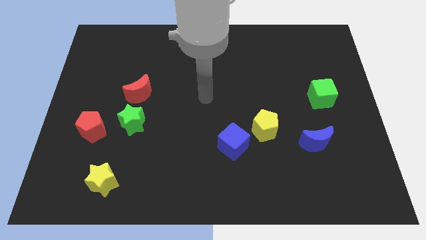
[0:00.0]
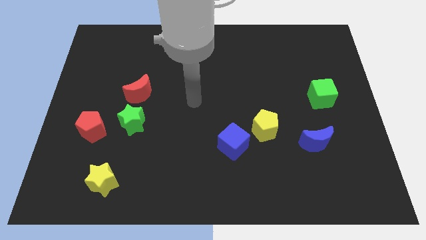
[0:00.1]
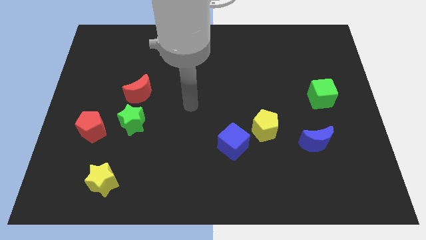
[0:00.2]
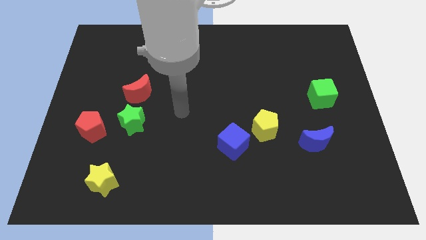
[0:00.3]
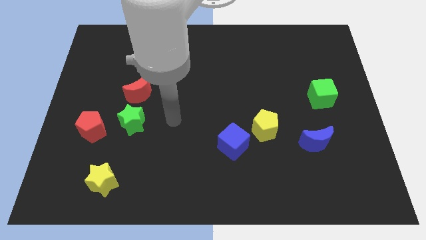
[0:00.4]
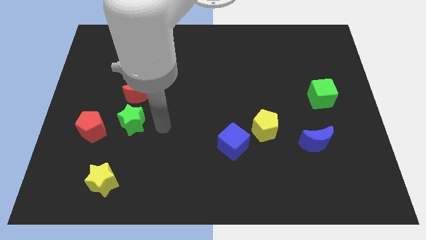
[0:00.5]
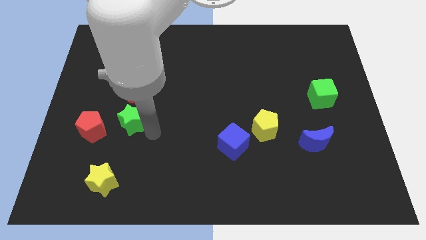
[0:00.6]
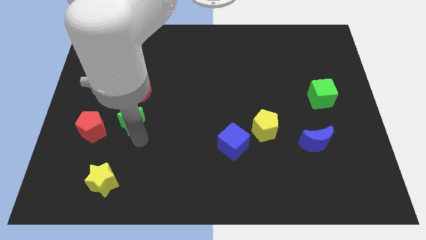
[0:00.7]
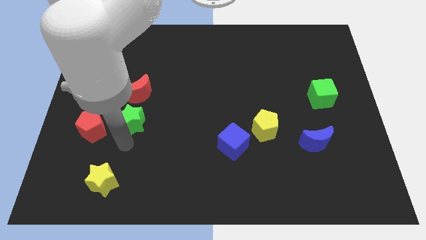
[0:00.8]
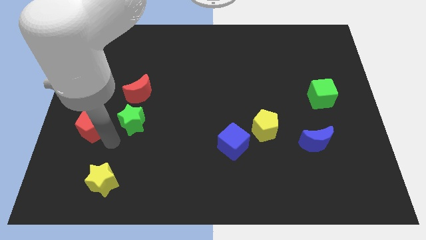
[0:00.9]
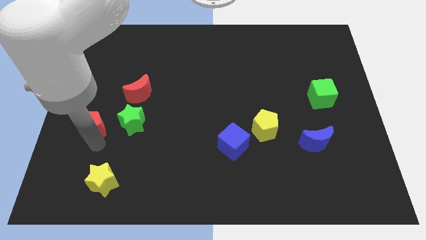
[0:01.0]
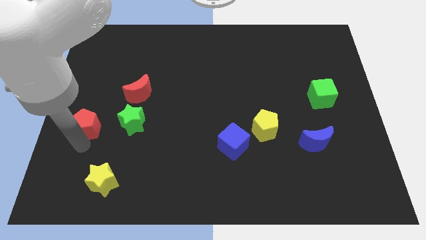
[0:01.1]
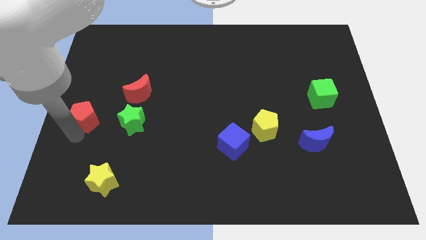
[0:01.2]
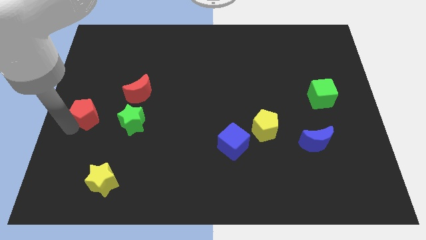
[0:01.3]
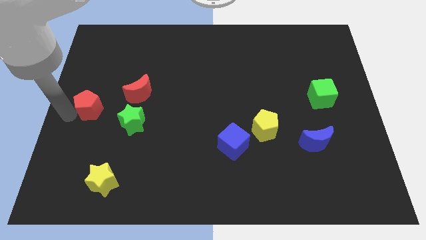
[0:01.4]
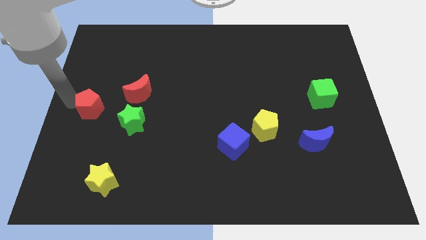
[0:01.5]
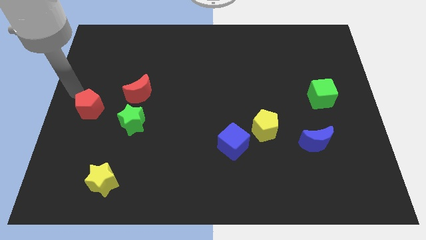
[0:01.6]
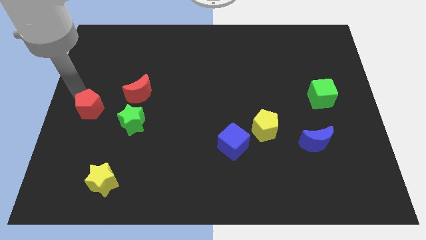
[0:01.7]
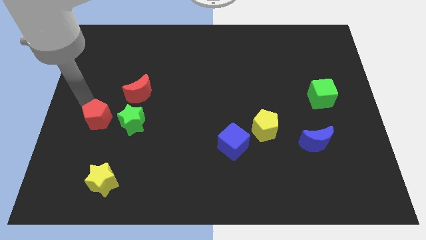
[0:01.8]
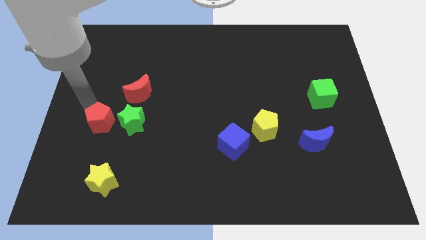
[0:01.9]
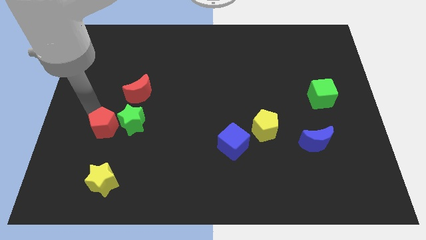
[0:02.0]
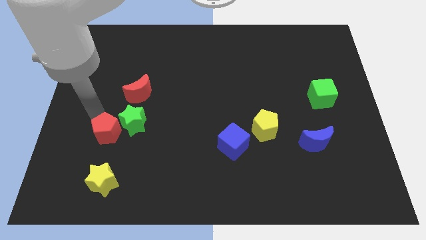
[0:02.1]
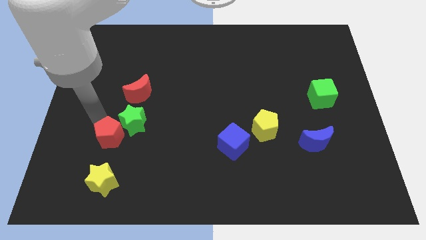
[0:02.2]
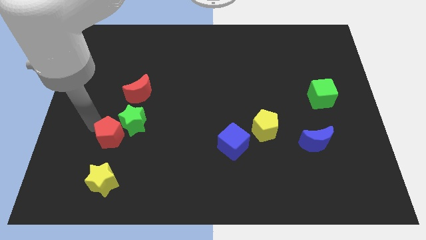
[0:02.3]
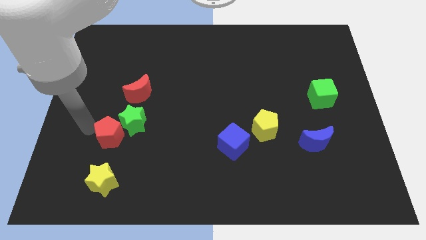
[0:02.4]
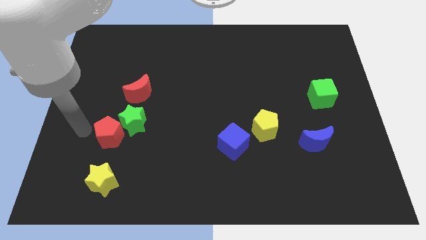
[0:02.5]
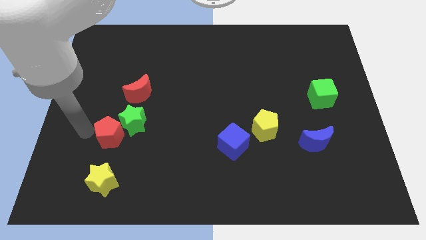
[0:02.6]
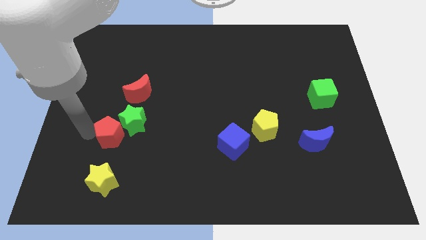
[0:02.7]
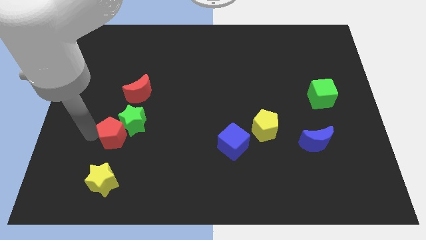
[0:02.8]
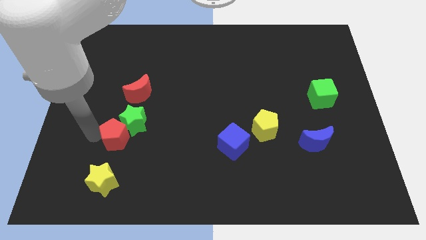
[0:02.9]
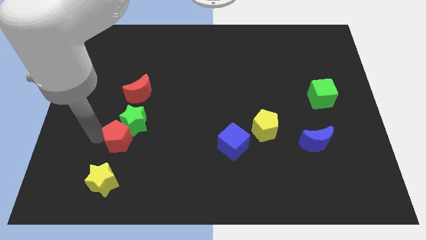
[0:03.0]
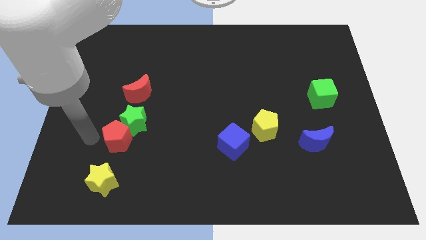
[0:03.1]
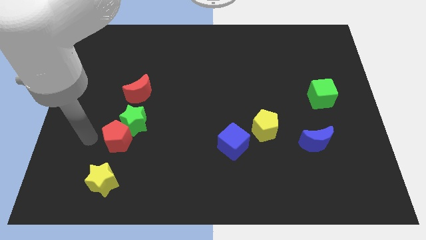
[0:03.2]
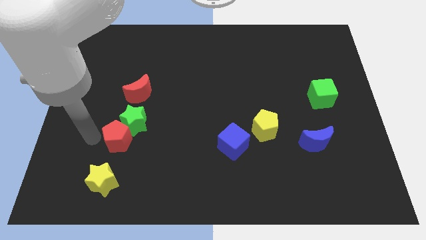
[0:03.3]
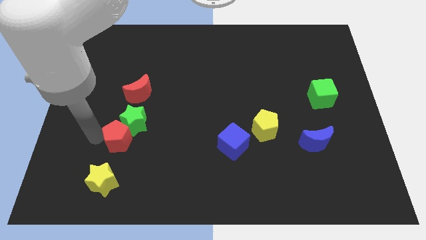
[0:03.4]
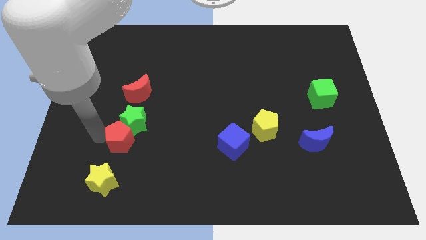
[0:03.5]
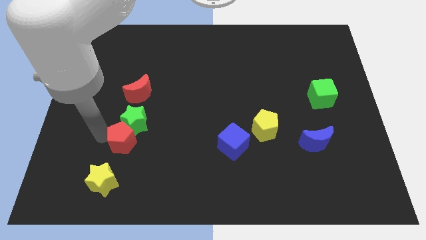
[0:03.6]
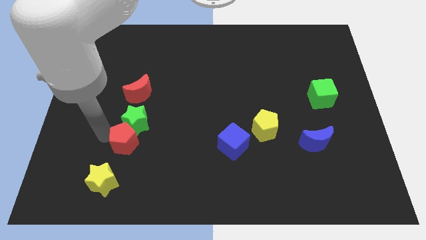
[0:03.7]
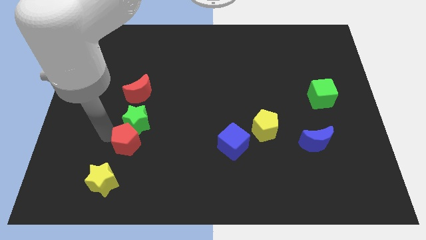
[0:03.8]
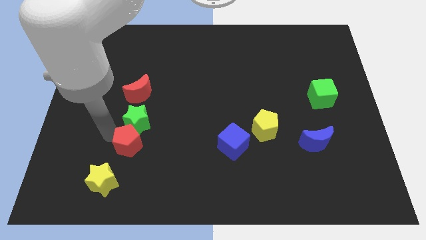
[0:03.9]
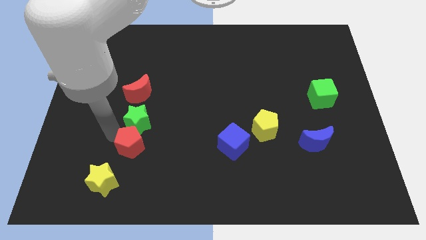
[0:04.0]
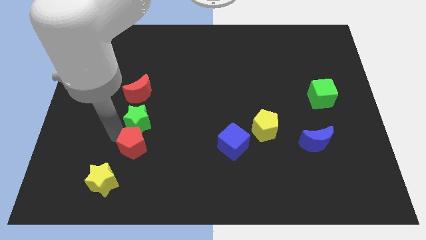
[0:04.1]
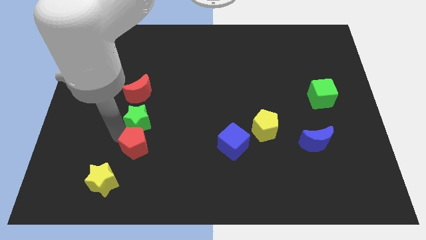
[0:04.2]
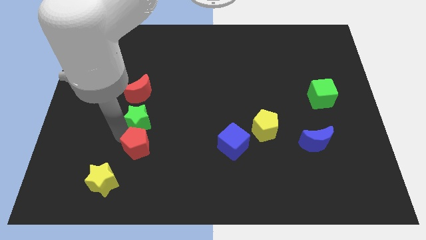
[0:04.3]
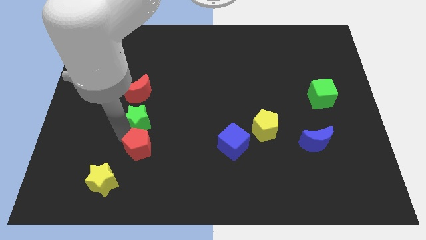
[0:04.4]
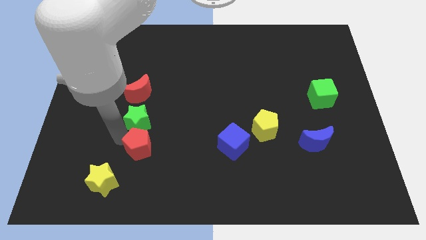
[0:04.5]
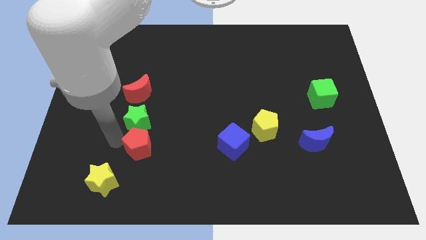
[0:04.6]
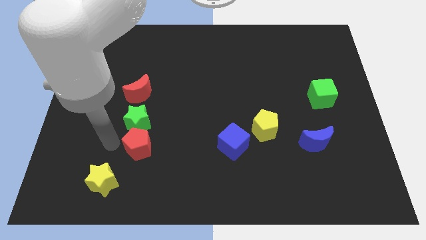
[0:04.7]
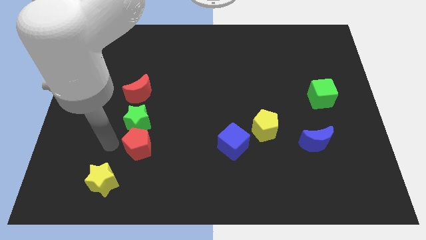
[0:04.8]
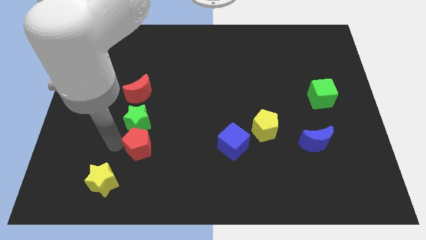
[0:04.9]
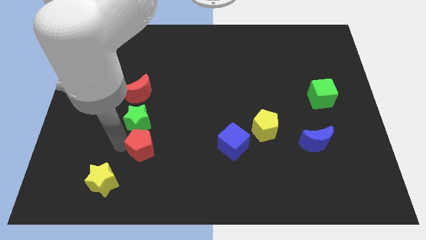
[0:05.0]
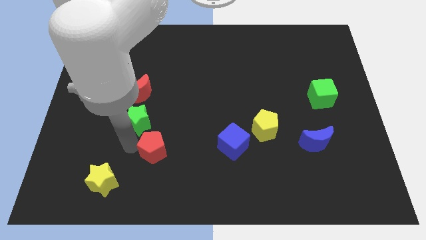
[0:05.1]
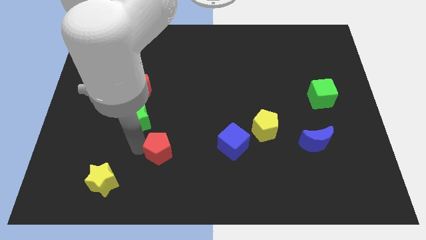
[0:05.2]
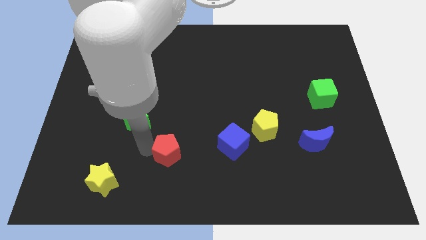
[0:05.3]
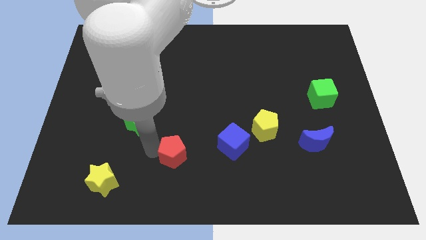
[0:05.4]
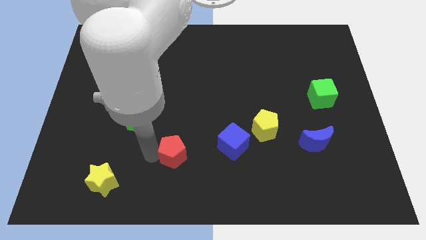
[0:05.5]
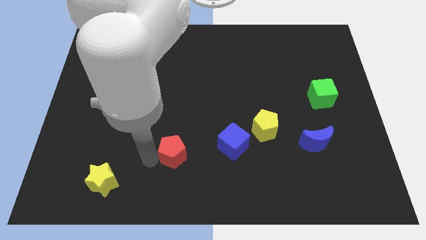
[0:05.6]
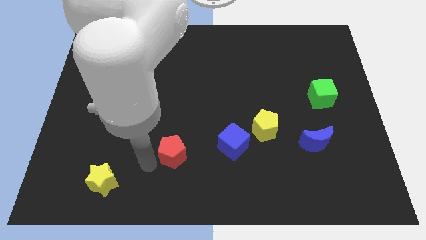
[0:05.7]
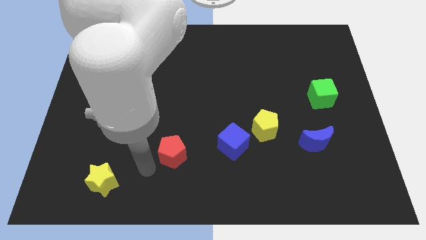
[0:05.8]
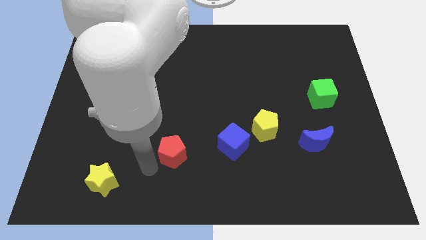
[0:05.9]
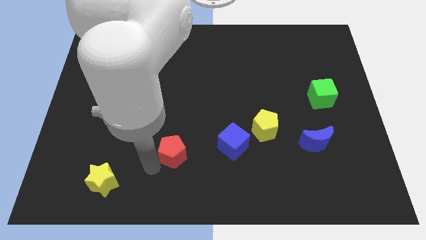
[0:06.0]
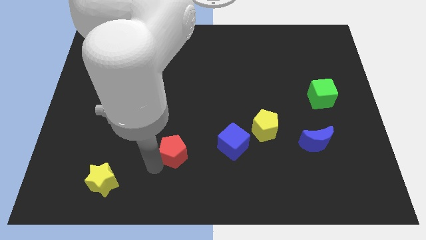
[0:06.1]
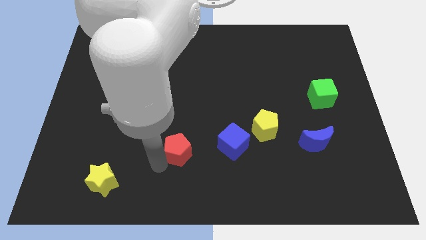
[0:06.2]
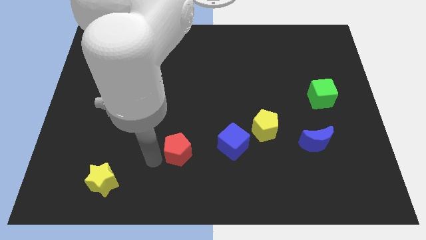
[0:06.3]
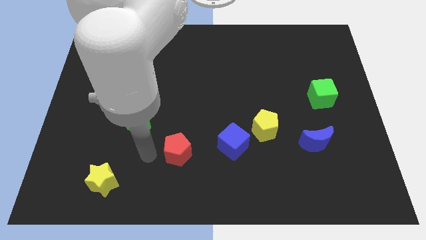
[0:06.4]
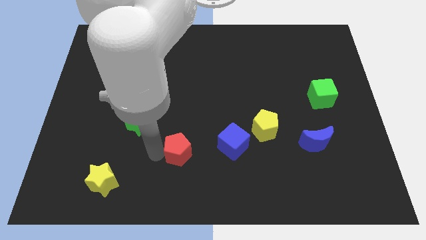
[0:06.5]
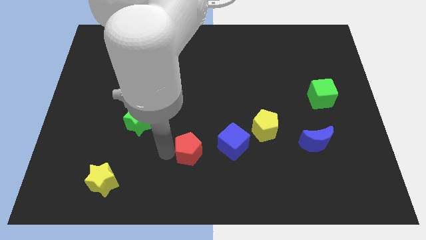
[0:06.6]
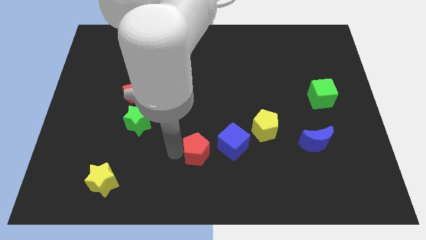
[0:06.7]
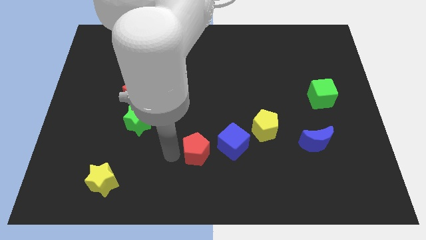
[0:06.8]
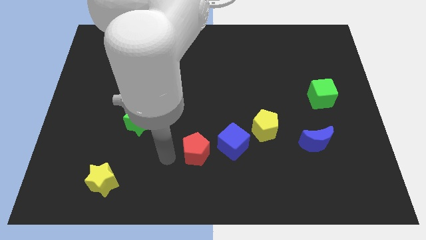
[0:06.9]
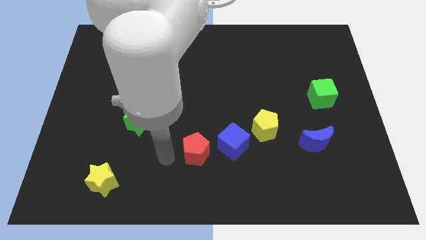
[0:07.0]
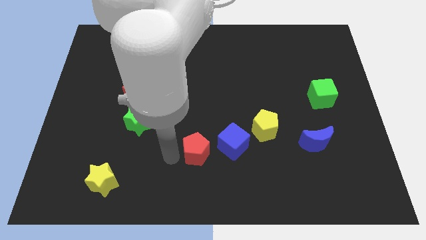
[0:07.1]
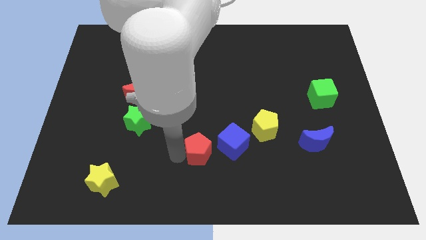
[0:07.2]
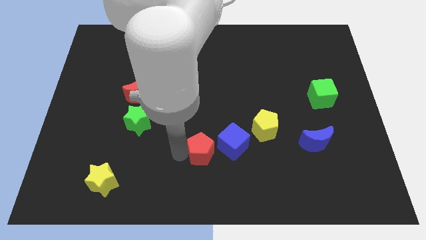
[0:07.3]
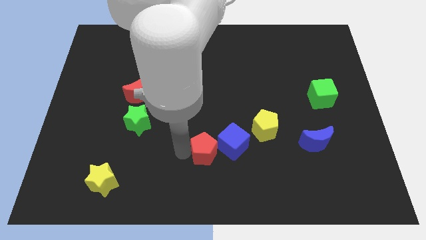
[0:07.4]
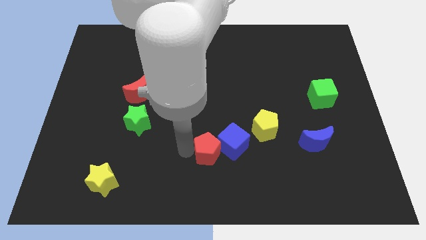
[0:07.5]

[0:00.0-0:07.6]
push the red pentagon to the blue cube

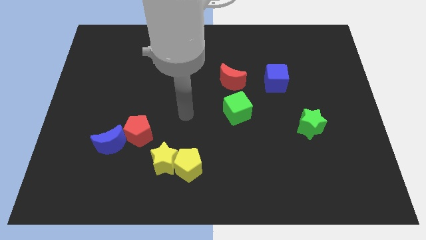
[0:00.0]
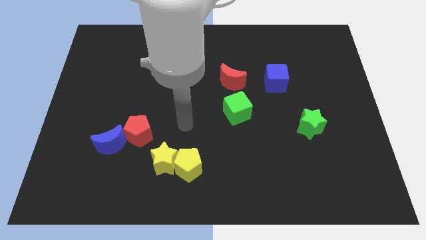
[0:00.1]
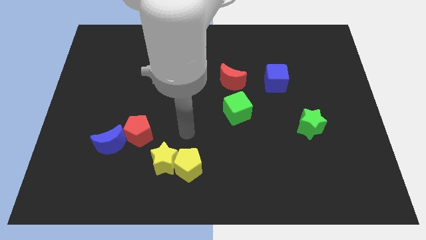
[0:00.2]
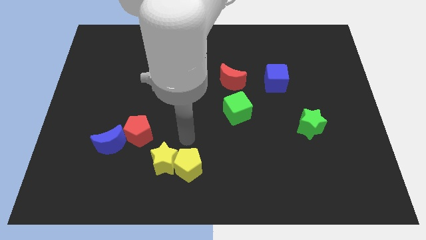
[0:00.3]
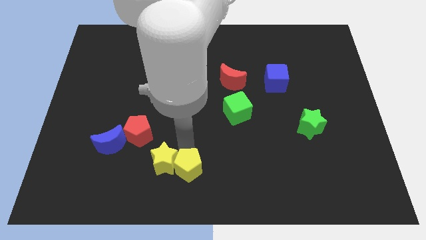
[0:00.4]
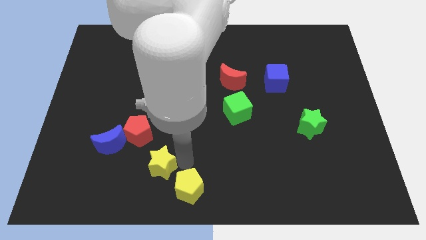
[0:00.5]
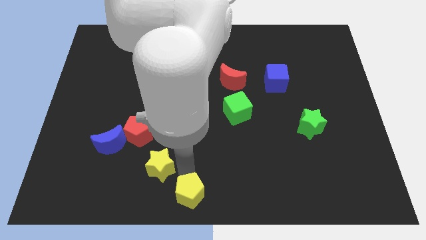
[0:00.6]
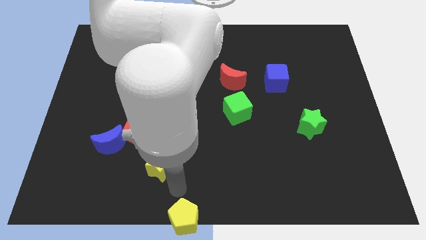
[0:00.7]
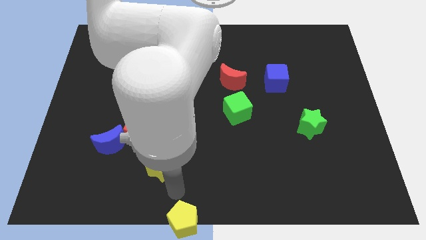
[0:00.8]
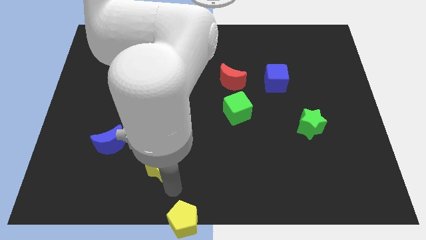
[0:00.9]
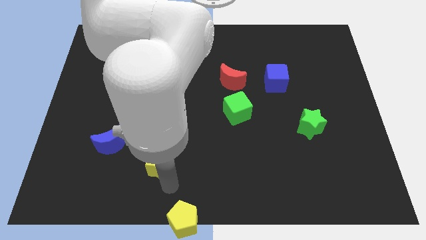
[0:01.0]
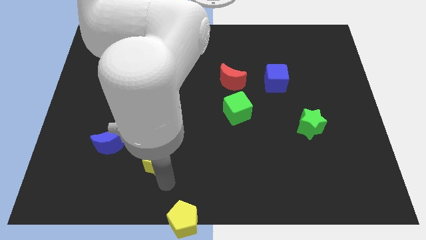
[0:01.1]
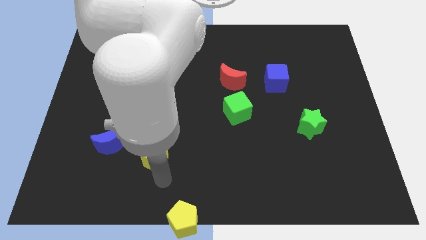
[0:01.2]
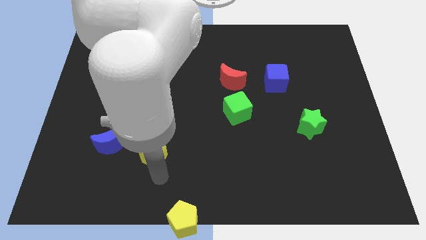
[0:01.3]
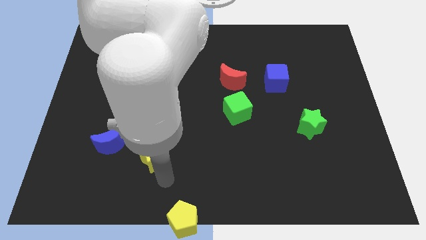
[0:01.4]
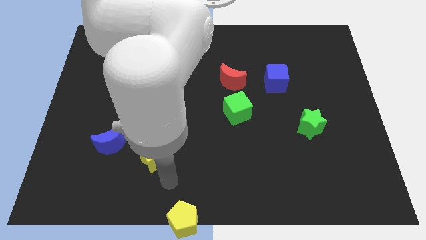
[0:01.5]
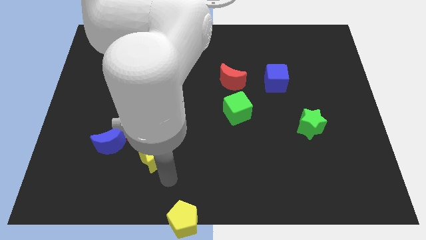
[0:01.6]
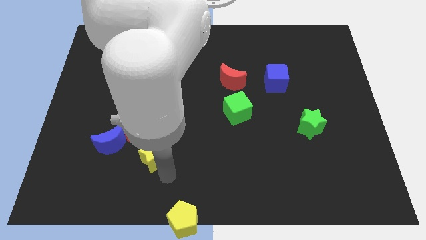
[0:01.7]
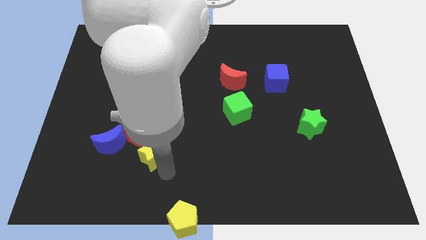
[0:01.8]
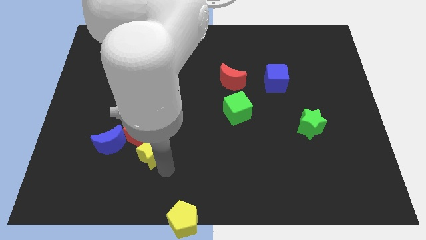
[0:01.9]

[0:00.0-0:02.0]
slide the yellow star towards the red pentagon
